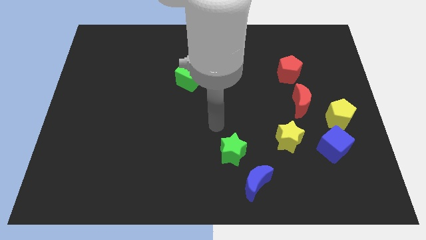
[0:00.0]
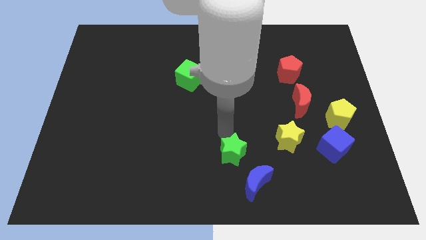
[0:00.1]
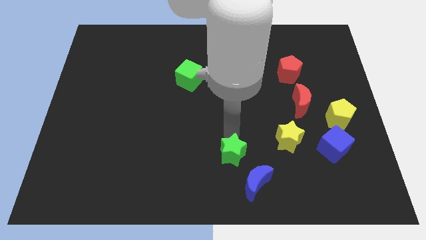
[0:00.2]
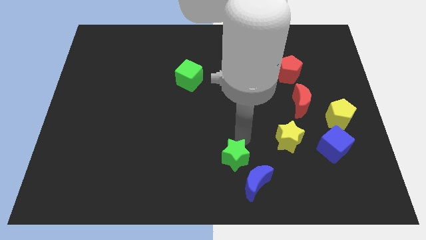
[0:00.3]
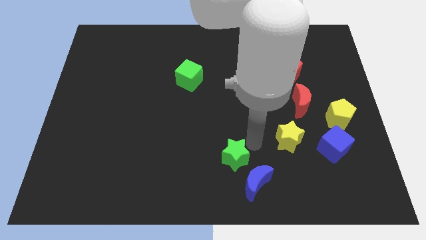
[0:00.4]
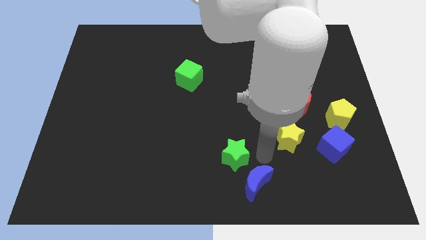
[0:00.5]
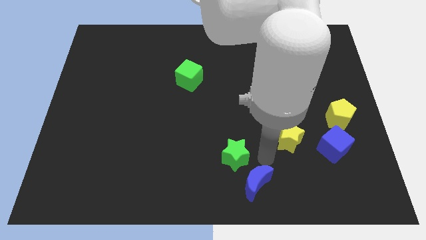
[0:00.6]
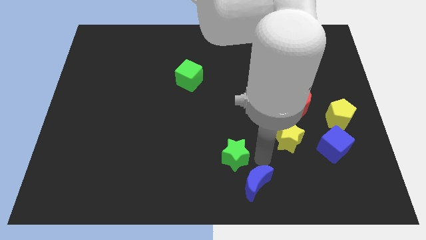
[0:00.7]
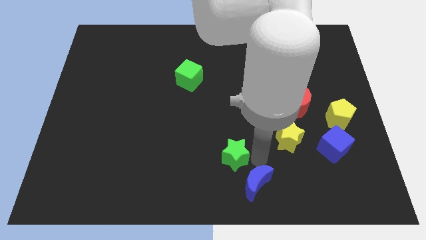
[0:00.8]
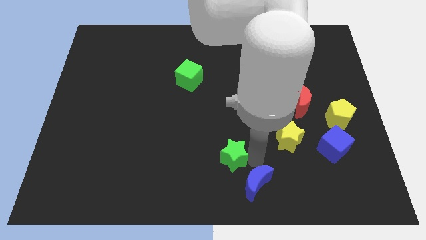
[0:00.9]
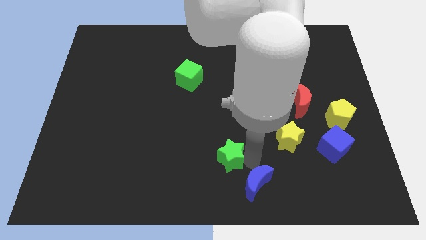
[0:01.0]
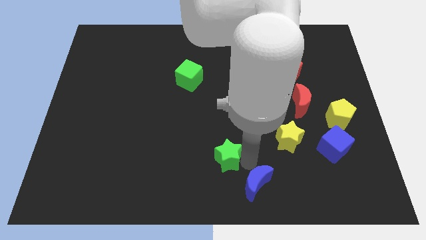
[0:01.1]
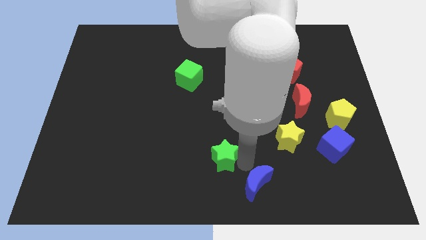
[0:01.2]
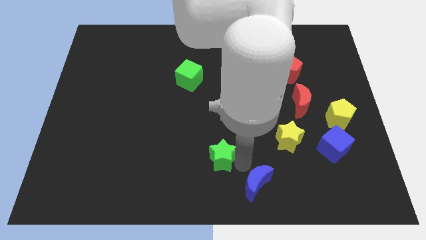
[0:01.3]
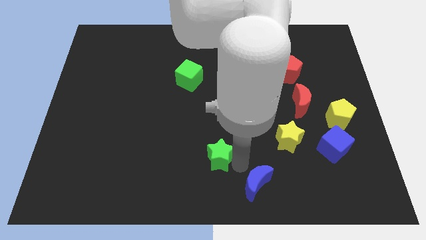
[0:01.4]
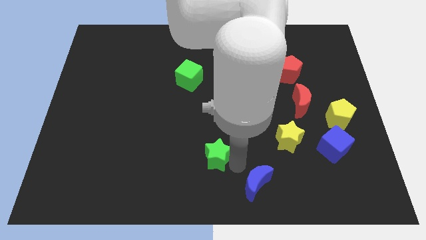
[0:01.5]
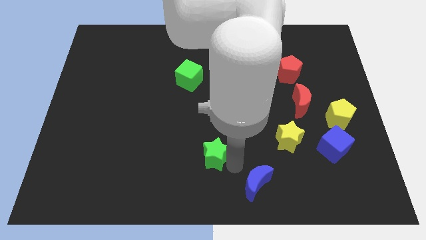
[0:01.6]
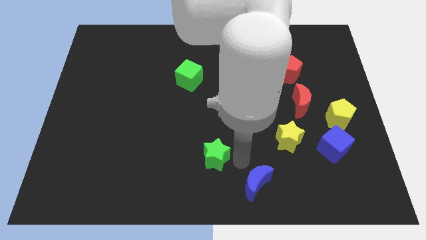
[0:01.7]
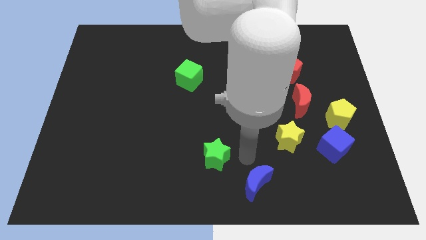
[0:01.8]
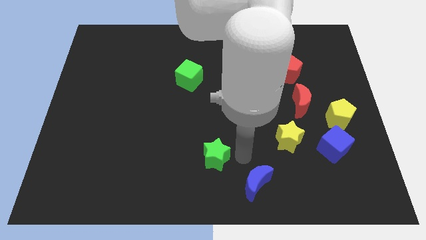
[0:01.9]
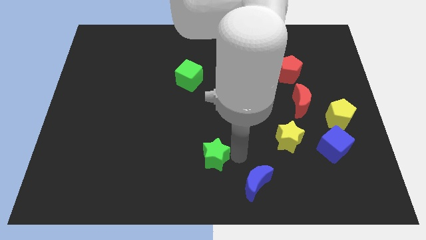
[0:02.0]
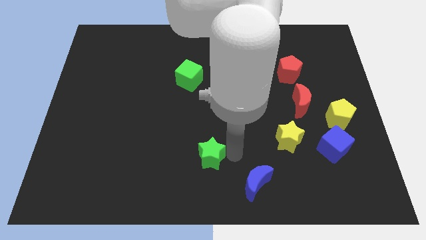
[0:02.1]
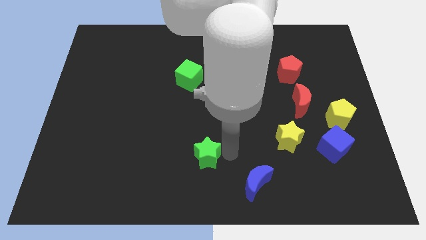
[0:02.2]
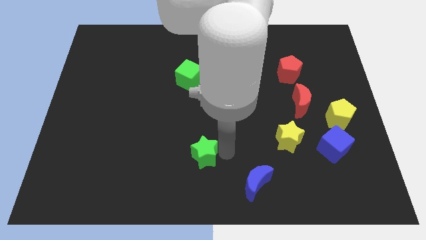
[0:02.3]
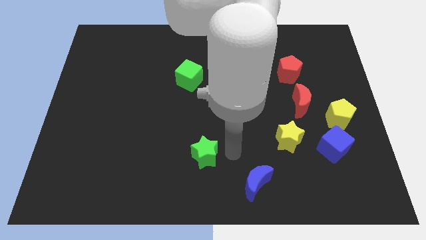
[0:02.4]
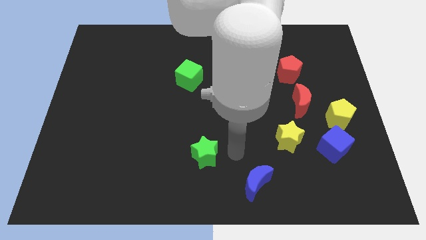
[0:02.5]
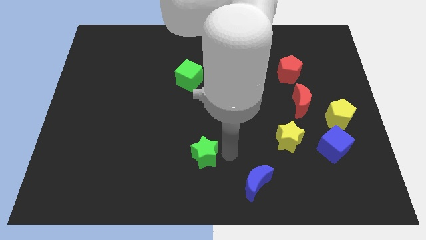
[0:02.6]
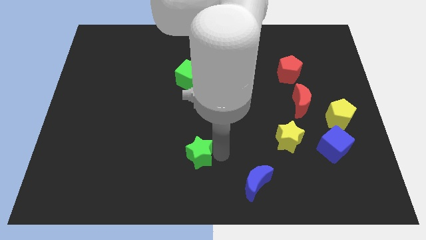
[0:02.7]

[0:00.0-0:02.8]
slide the green star left a little bit

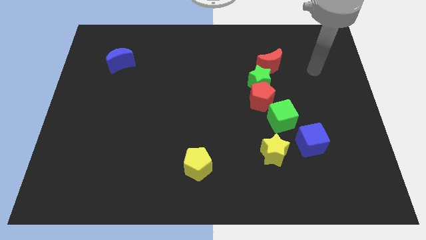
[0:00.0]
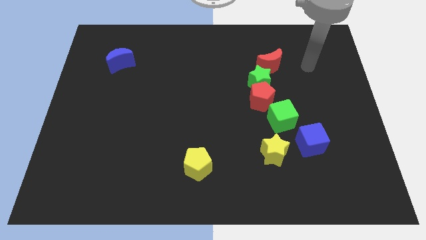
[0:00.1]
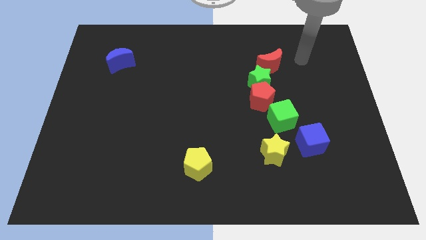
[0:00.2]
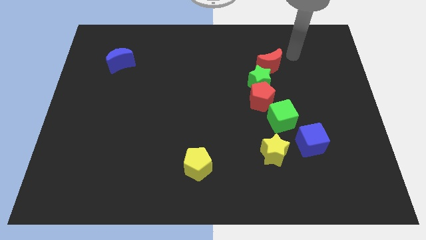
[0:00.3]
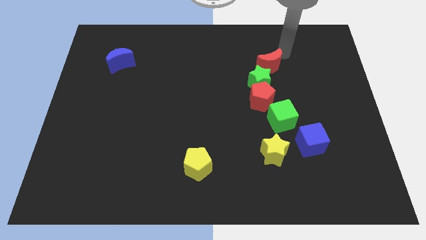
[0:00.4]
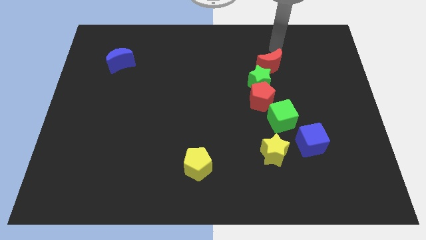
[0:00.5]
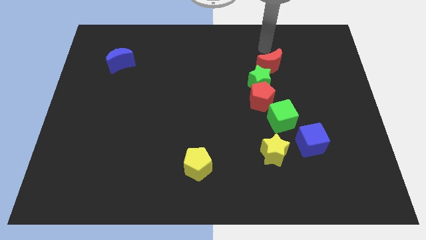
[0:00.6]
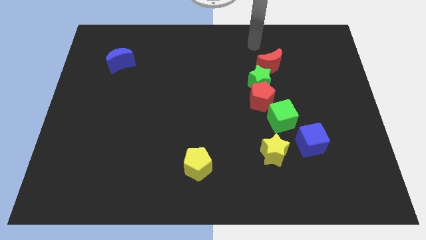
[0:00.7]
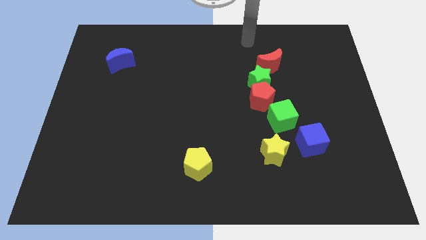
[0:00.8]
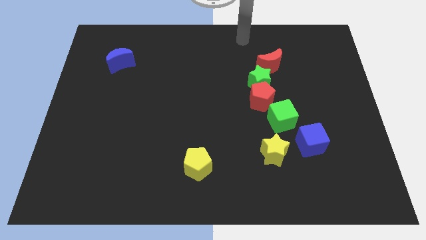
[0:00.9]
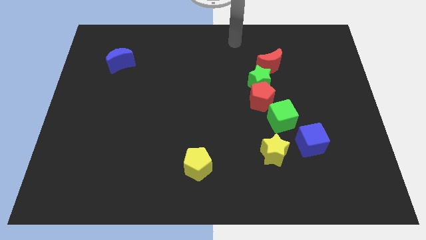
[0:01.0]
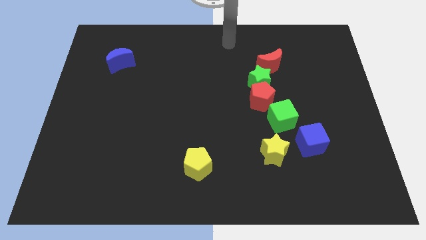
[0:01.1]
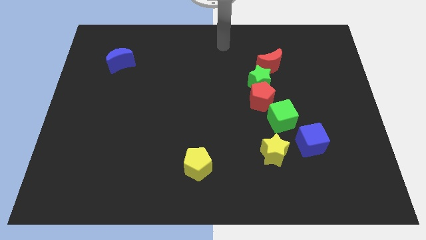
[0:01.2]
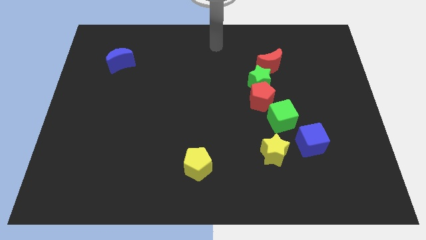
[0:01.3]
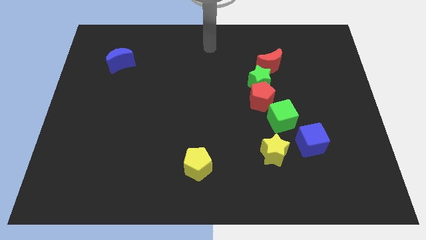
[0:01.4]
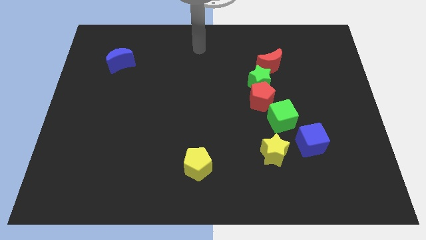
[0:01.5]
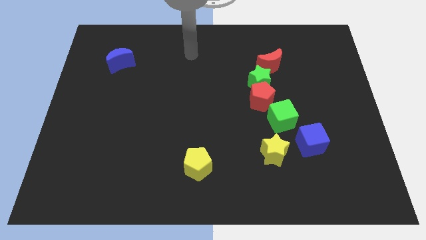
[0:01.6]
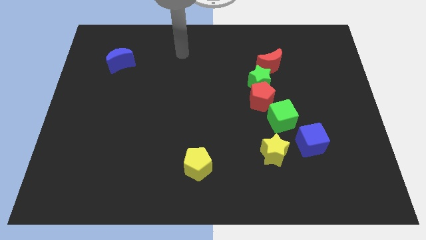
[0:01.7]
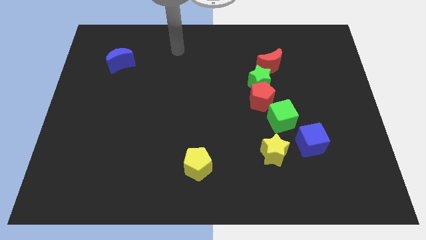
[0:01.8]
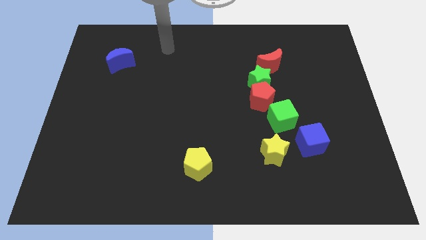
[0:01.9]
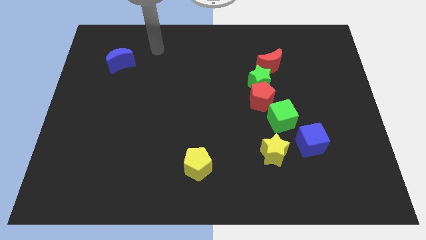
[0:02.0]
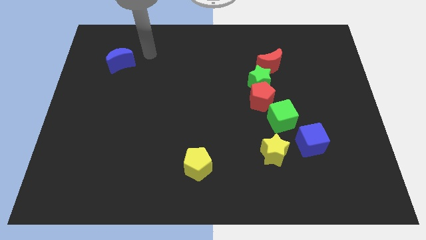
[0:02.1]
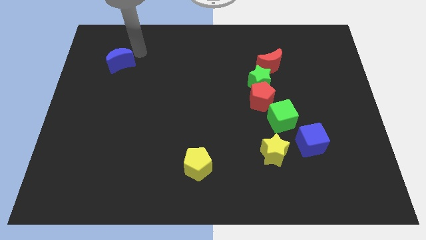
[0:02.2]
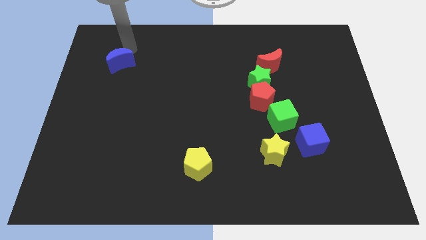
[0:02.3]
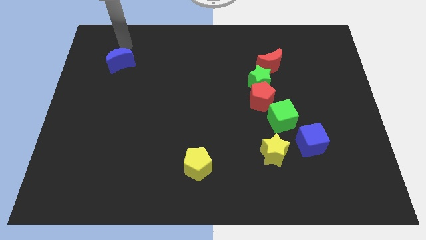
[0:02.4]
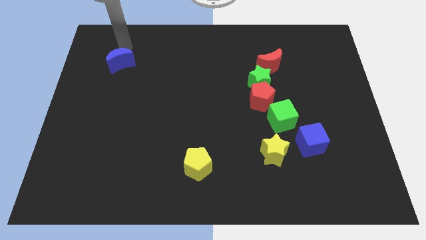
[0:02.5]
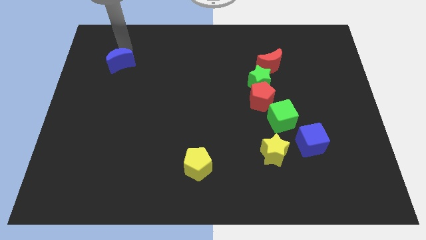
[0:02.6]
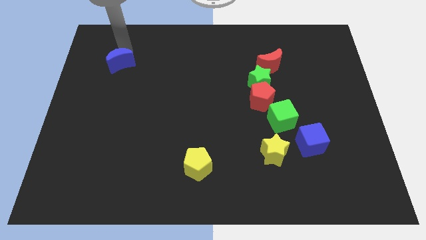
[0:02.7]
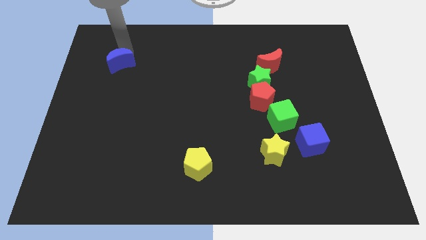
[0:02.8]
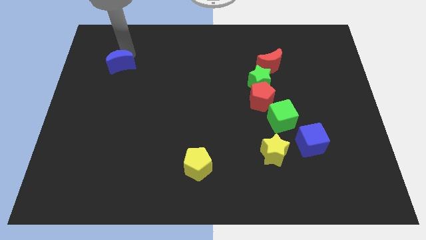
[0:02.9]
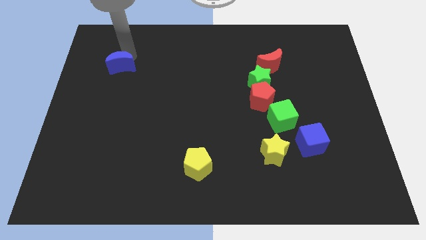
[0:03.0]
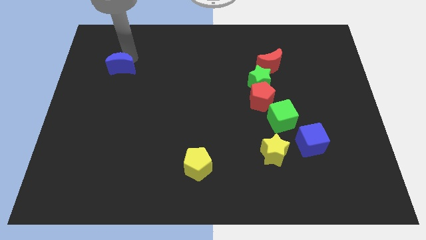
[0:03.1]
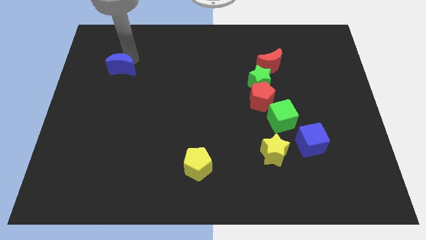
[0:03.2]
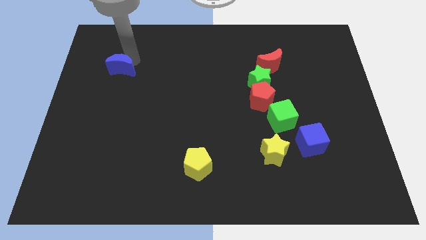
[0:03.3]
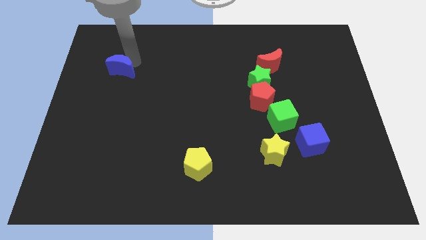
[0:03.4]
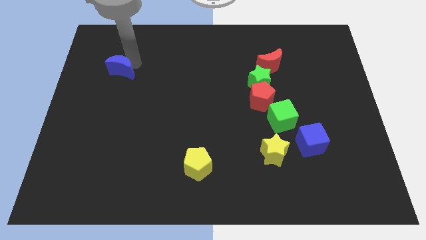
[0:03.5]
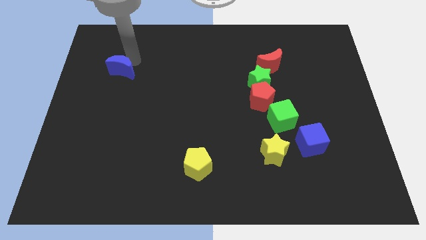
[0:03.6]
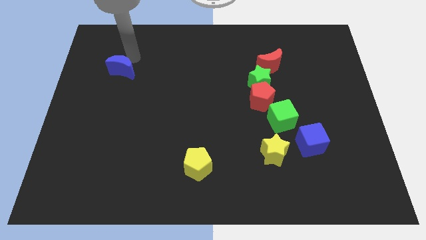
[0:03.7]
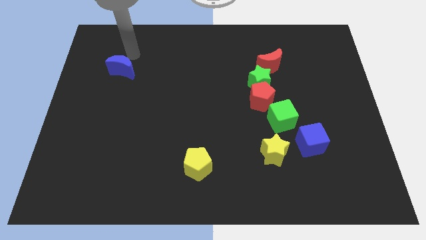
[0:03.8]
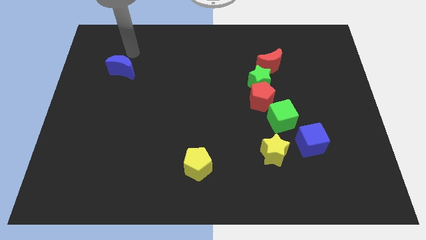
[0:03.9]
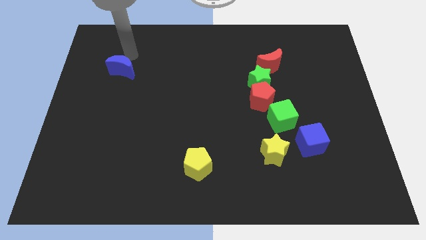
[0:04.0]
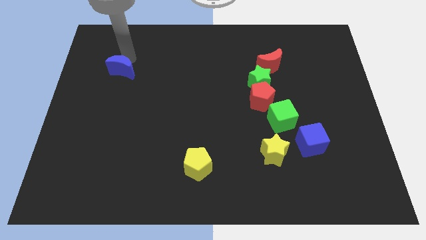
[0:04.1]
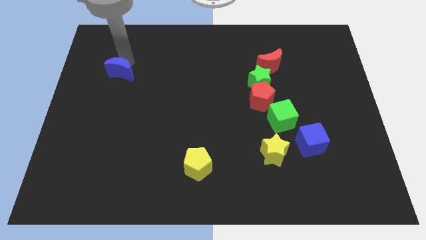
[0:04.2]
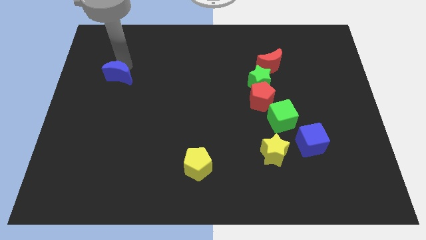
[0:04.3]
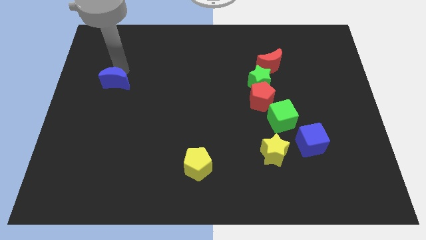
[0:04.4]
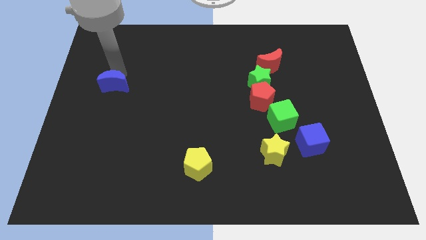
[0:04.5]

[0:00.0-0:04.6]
slide the blue moon a little down

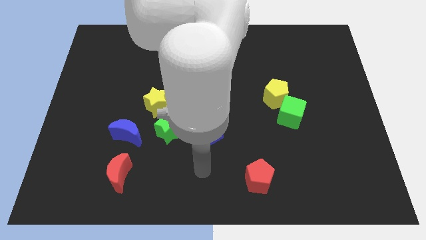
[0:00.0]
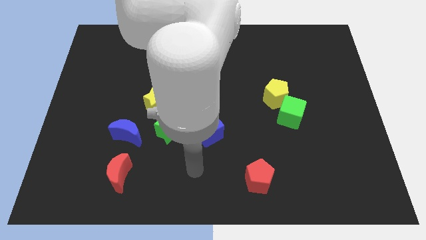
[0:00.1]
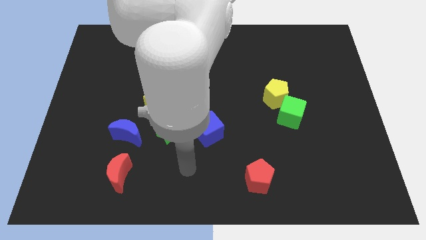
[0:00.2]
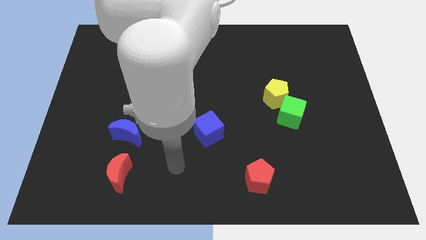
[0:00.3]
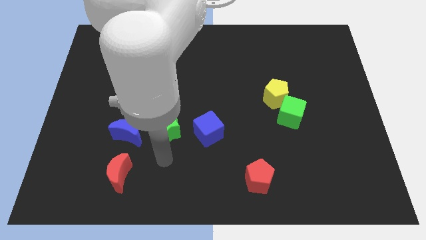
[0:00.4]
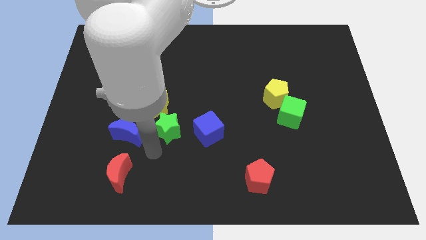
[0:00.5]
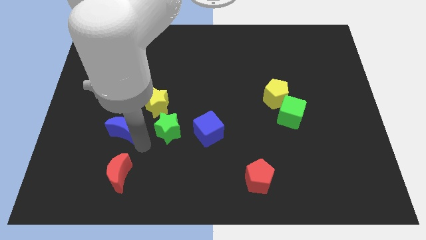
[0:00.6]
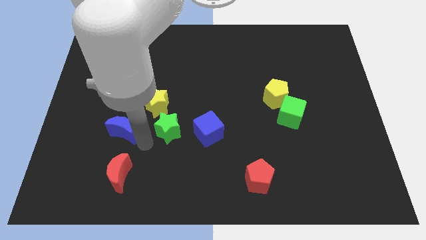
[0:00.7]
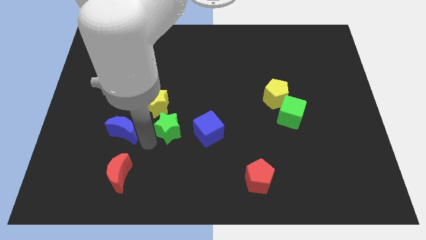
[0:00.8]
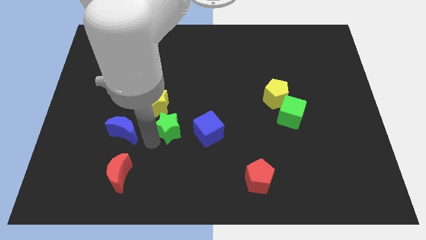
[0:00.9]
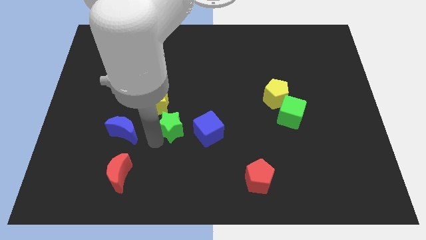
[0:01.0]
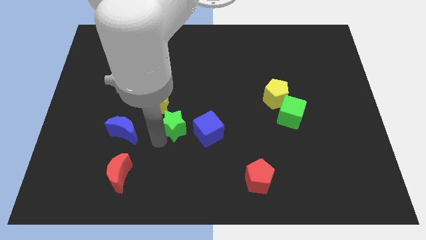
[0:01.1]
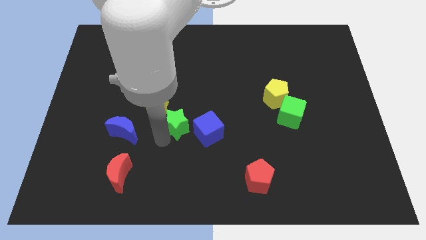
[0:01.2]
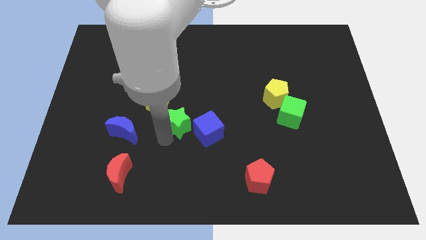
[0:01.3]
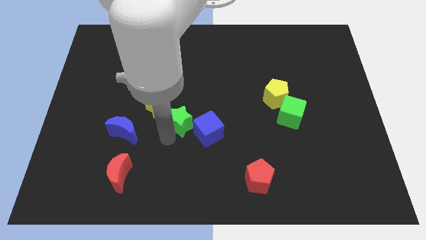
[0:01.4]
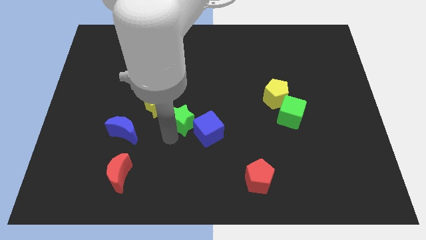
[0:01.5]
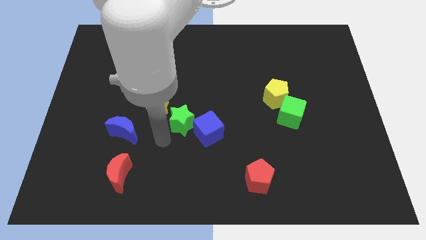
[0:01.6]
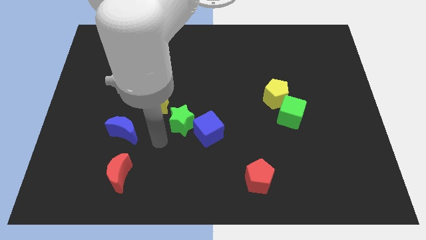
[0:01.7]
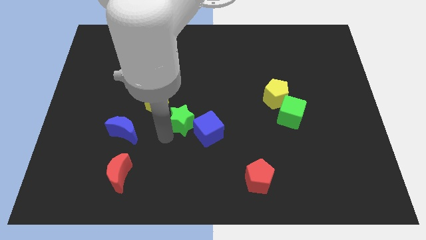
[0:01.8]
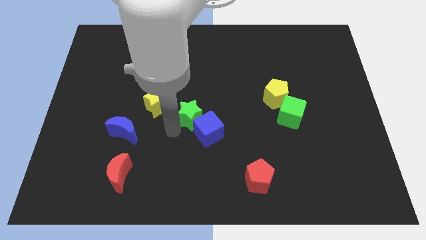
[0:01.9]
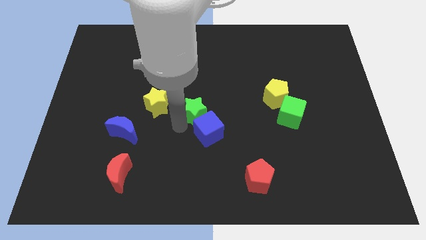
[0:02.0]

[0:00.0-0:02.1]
slightly slide the green star up and then to the right
